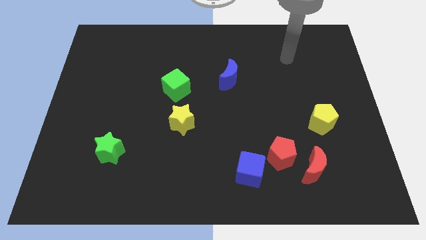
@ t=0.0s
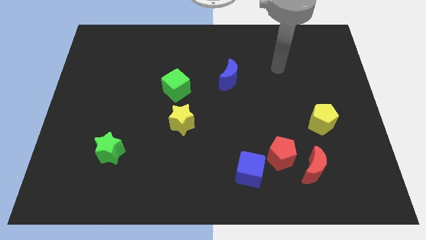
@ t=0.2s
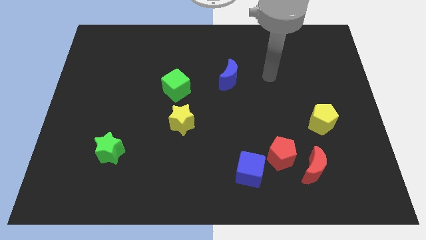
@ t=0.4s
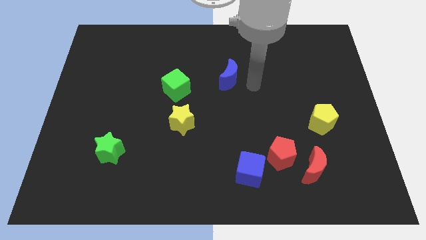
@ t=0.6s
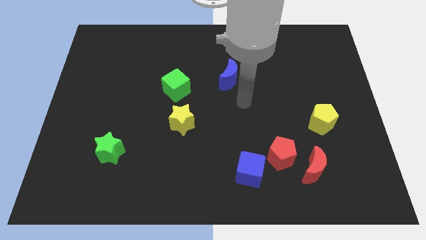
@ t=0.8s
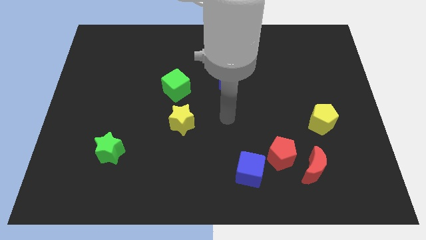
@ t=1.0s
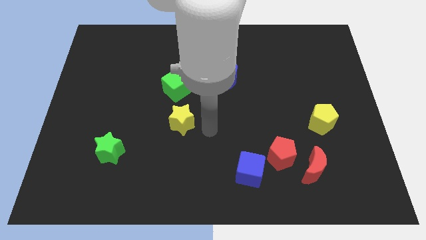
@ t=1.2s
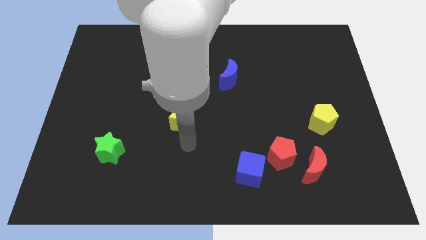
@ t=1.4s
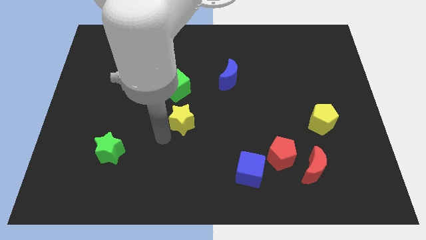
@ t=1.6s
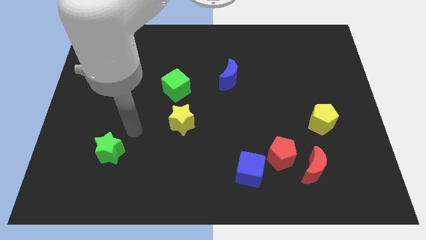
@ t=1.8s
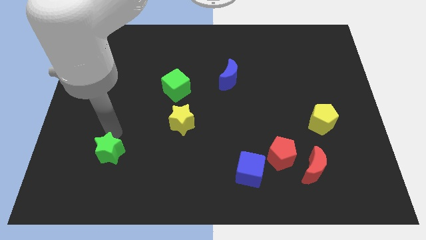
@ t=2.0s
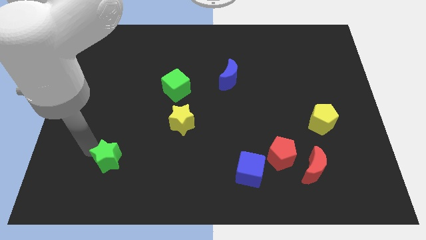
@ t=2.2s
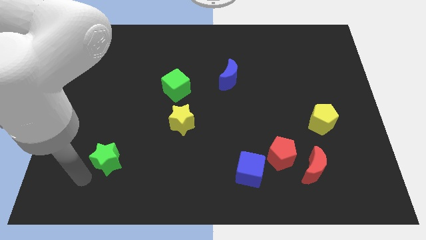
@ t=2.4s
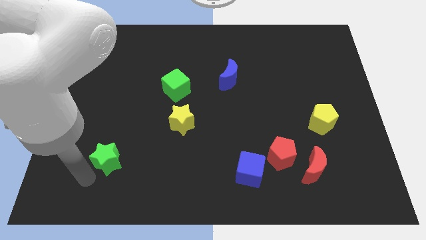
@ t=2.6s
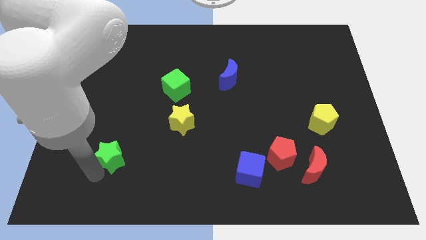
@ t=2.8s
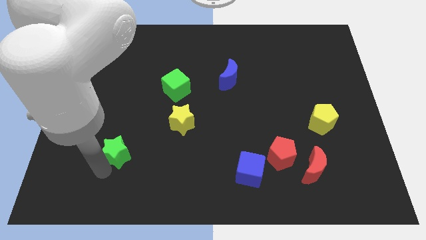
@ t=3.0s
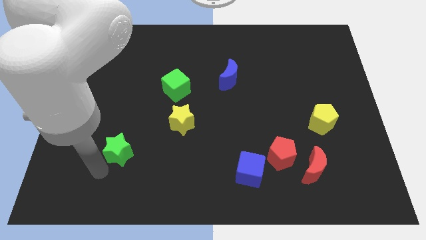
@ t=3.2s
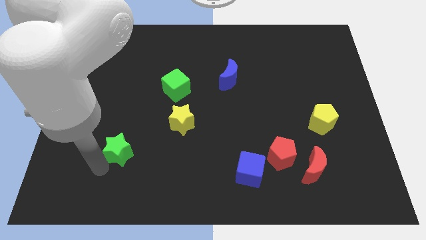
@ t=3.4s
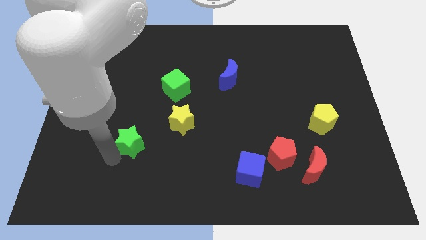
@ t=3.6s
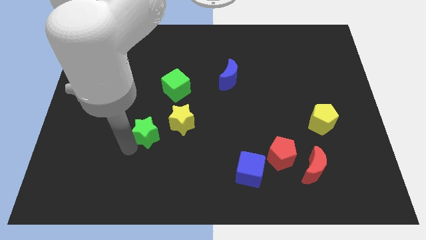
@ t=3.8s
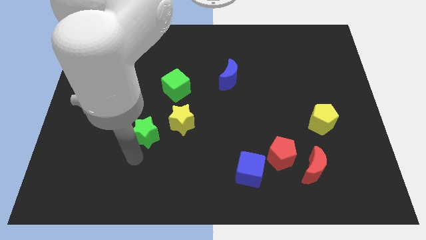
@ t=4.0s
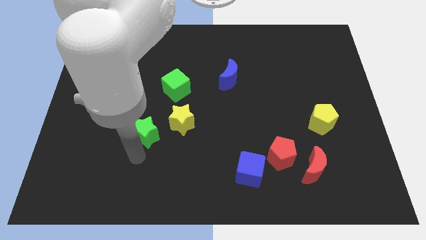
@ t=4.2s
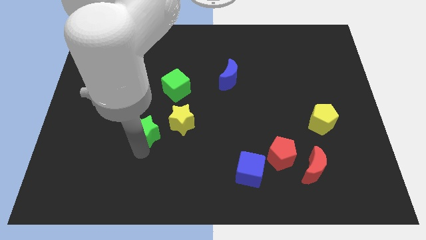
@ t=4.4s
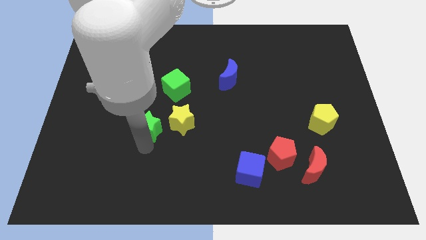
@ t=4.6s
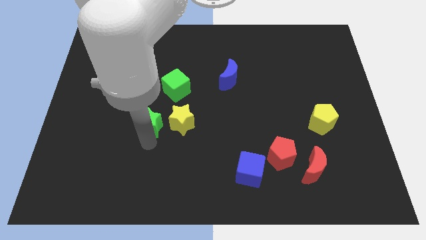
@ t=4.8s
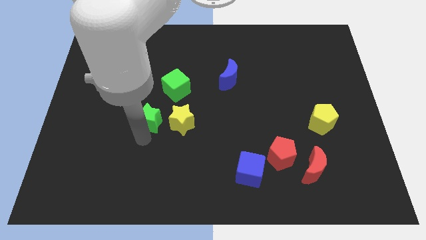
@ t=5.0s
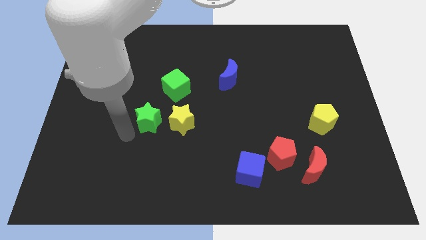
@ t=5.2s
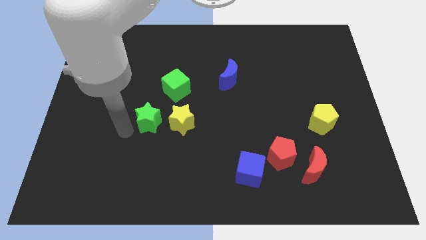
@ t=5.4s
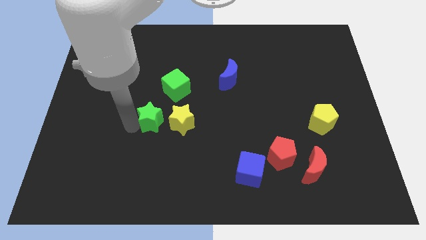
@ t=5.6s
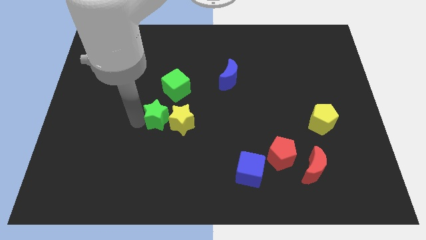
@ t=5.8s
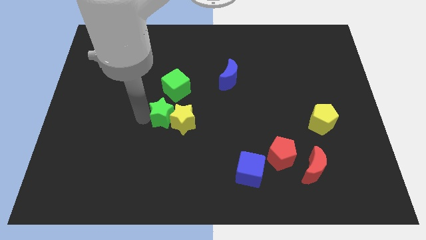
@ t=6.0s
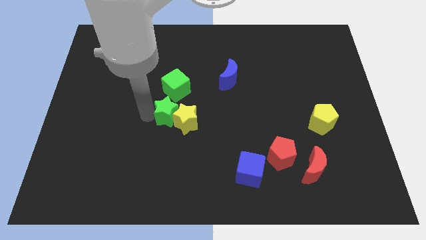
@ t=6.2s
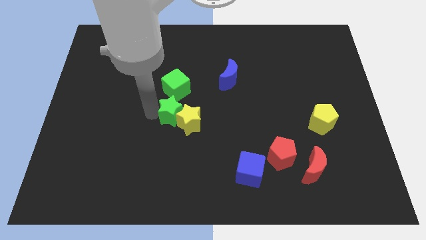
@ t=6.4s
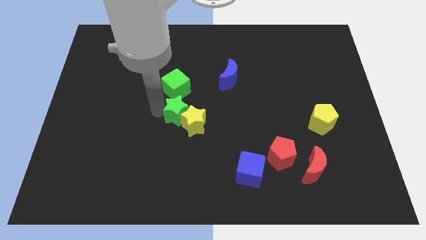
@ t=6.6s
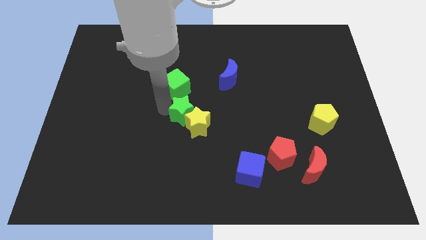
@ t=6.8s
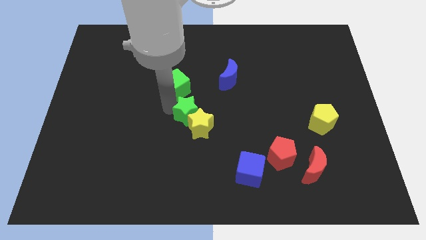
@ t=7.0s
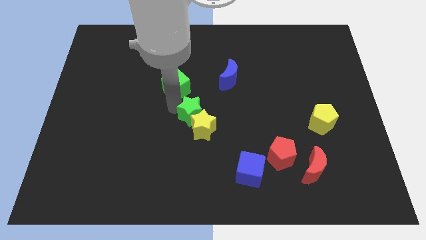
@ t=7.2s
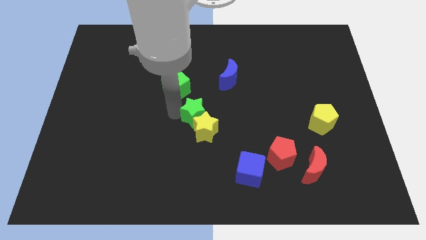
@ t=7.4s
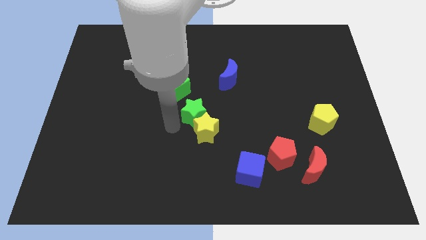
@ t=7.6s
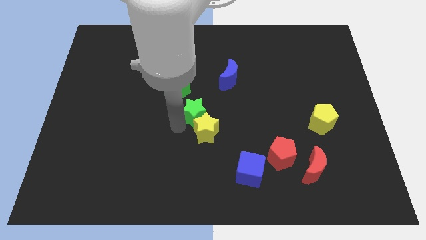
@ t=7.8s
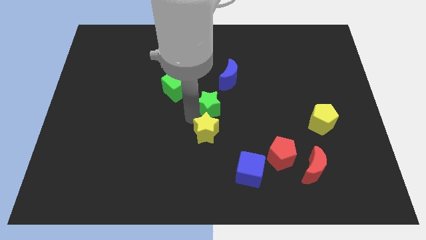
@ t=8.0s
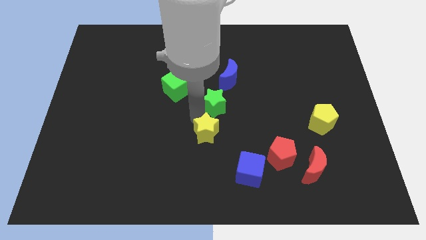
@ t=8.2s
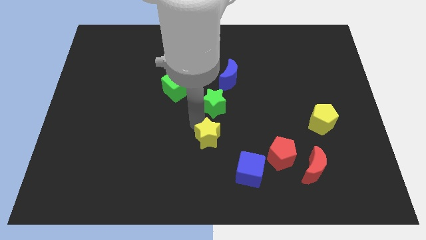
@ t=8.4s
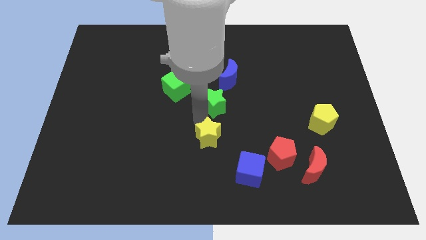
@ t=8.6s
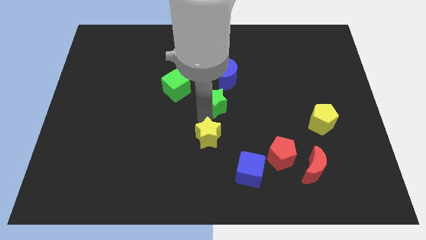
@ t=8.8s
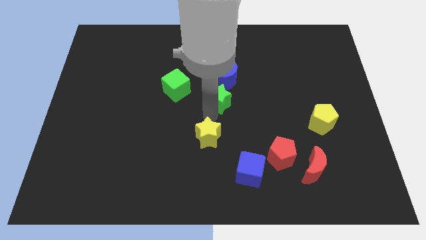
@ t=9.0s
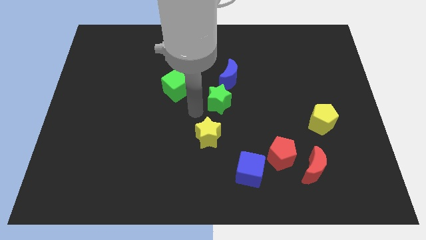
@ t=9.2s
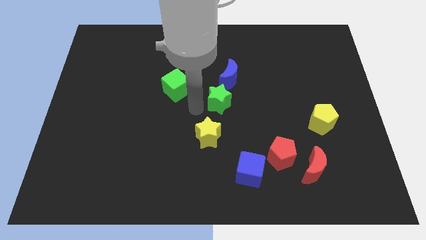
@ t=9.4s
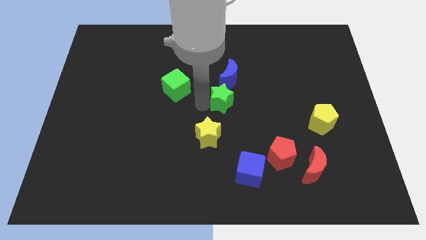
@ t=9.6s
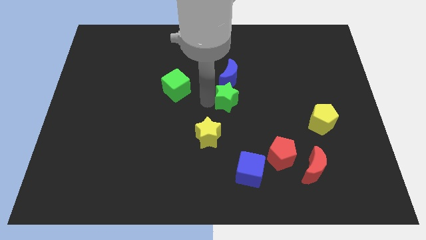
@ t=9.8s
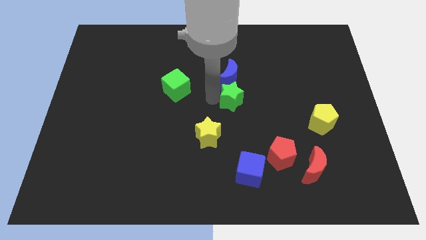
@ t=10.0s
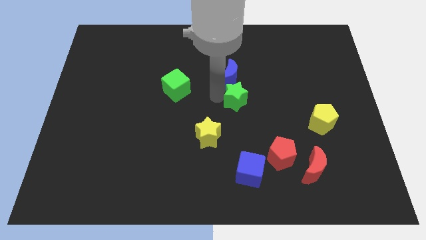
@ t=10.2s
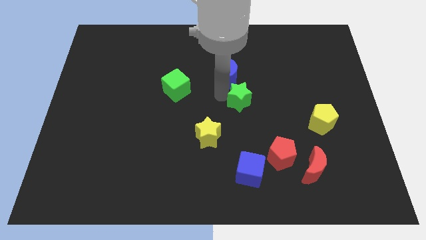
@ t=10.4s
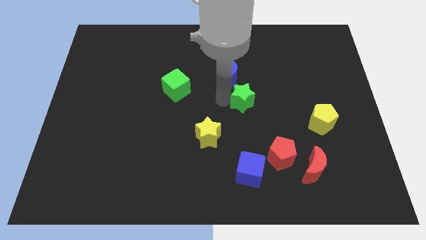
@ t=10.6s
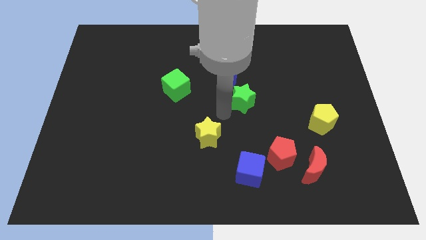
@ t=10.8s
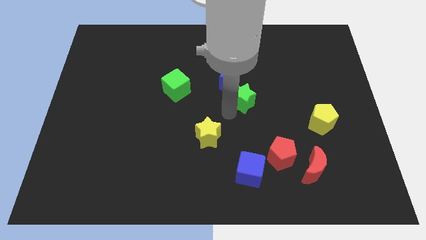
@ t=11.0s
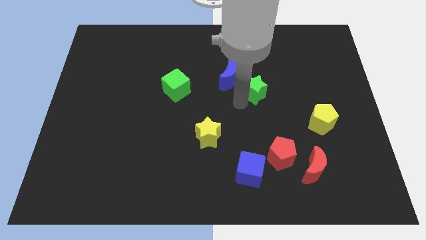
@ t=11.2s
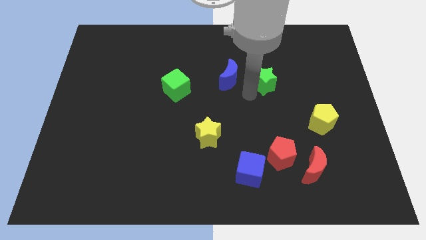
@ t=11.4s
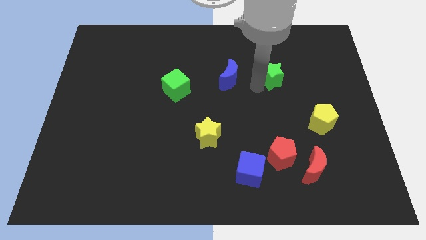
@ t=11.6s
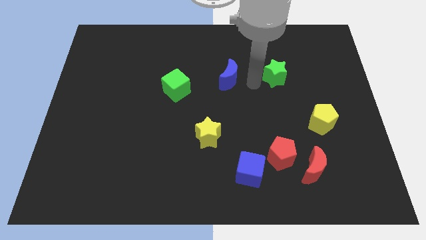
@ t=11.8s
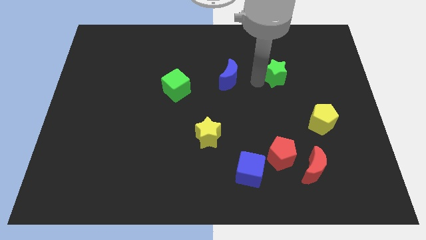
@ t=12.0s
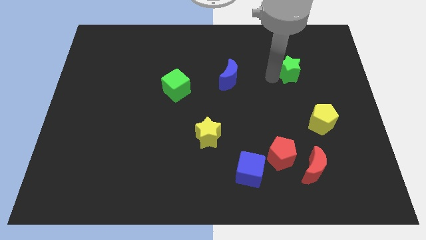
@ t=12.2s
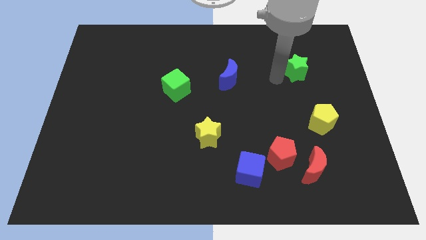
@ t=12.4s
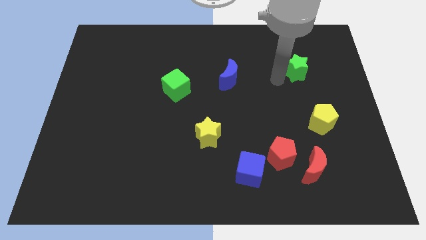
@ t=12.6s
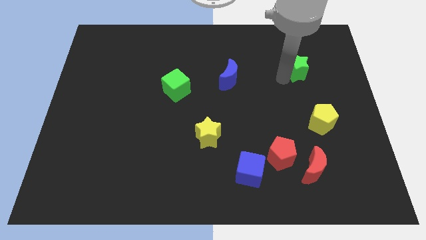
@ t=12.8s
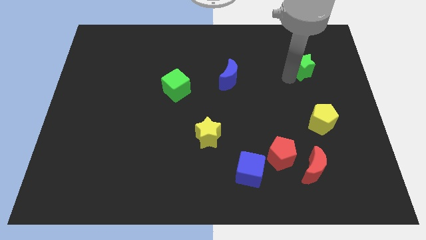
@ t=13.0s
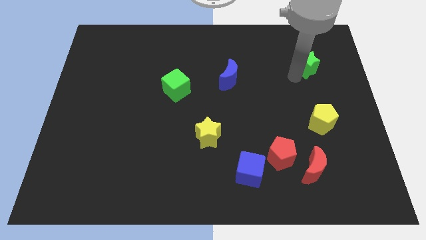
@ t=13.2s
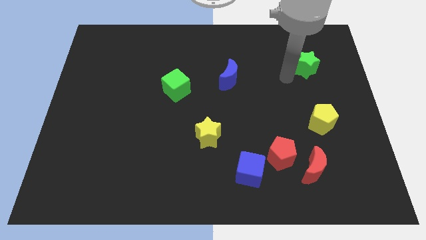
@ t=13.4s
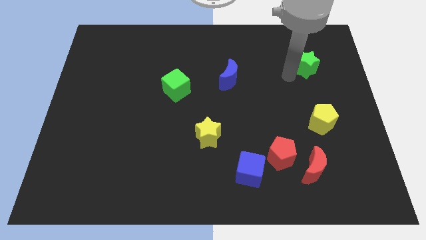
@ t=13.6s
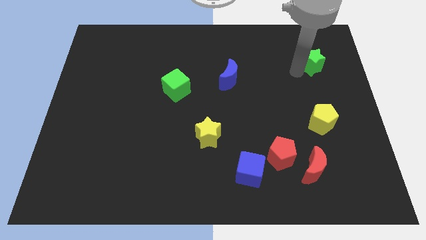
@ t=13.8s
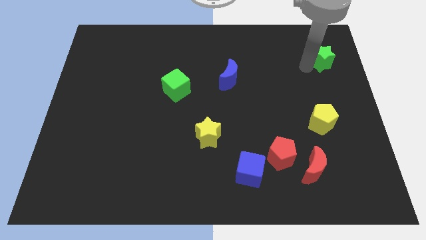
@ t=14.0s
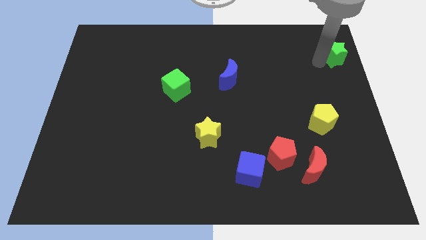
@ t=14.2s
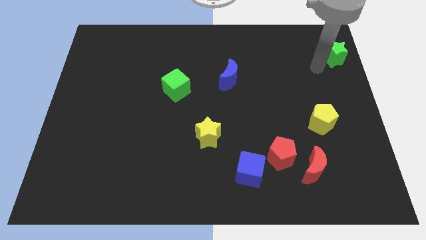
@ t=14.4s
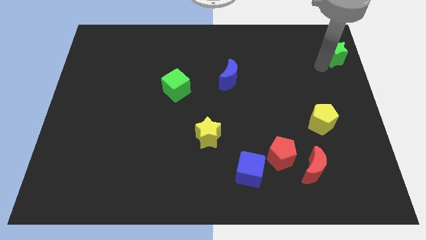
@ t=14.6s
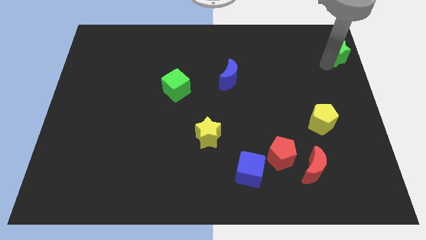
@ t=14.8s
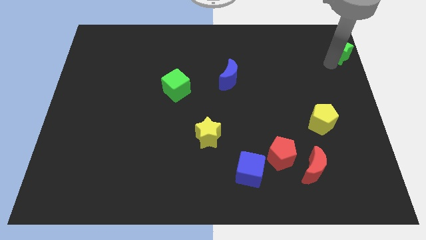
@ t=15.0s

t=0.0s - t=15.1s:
put the green star to the top right

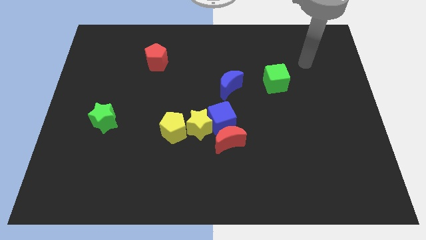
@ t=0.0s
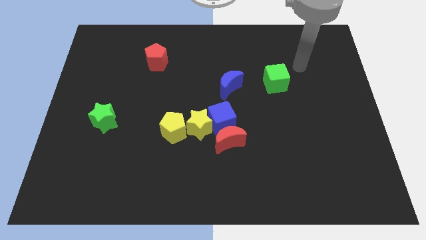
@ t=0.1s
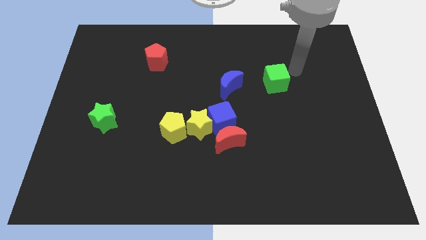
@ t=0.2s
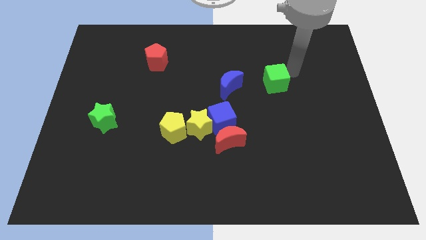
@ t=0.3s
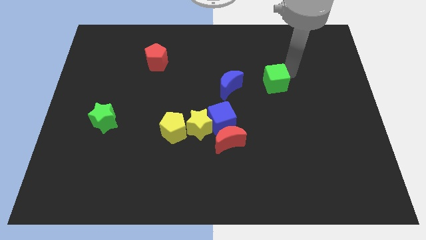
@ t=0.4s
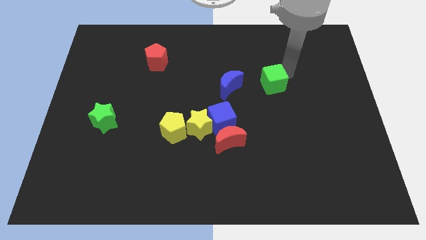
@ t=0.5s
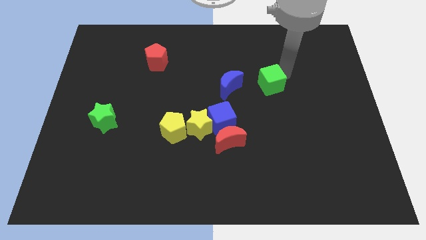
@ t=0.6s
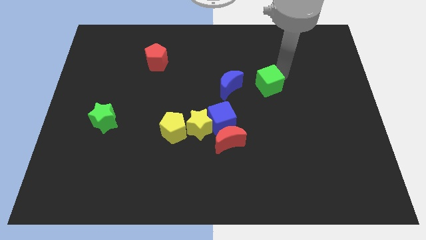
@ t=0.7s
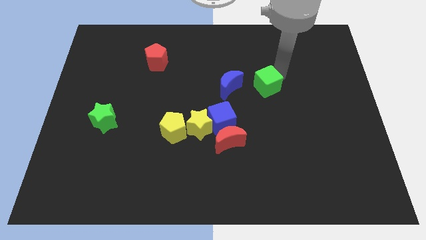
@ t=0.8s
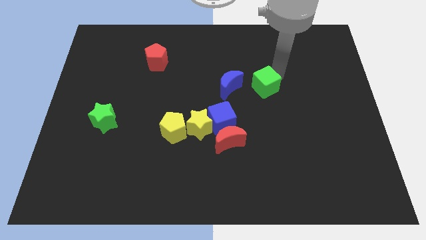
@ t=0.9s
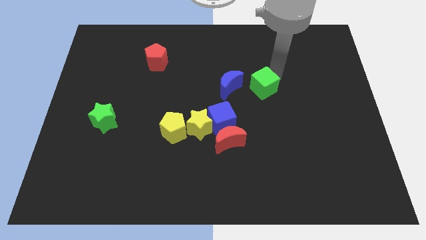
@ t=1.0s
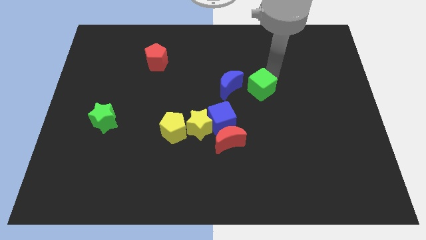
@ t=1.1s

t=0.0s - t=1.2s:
push the green cube to the center of the board
